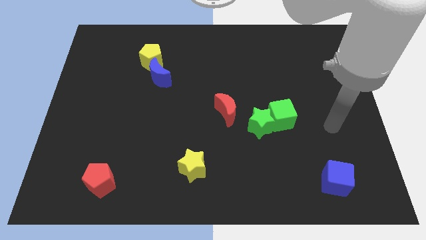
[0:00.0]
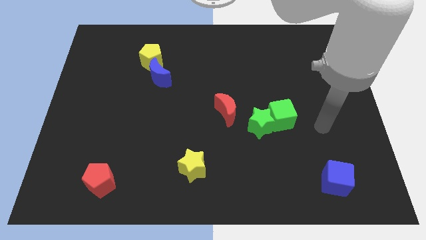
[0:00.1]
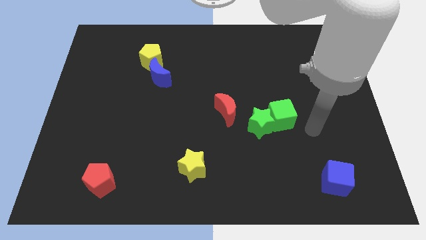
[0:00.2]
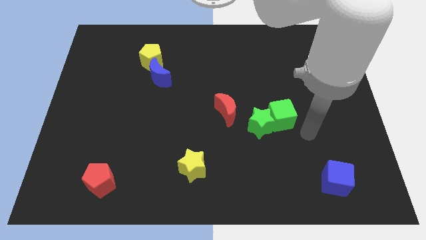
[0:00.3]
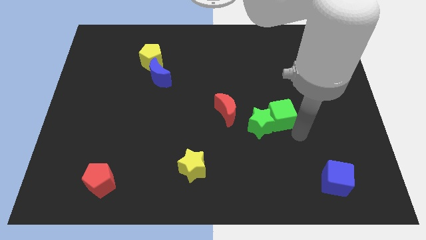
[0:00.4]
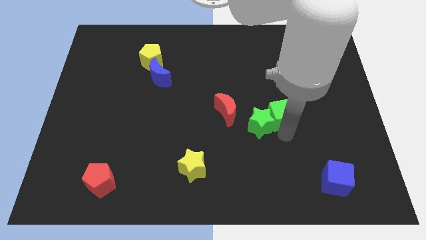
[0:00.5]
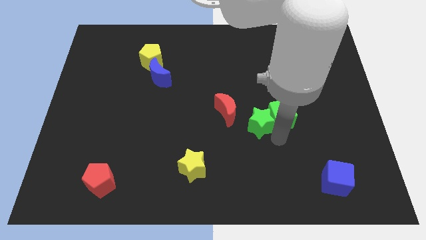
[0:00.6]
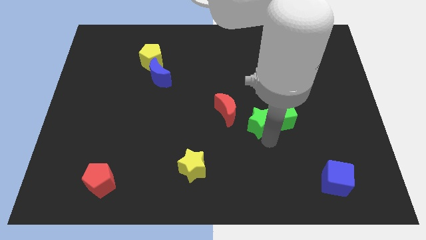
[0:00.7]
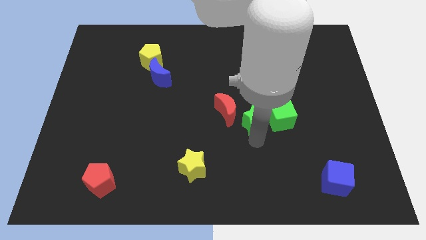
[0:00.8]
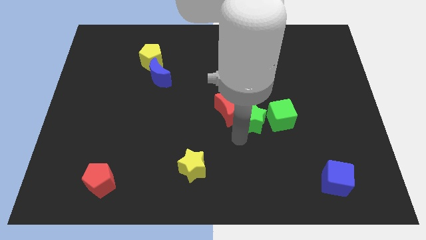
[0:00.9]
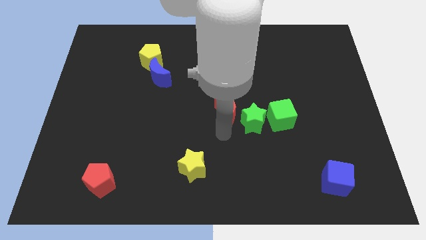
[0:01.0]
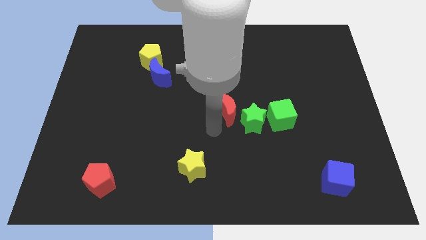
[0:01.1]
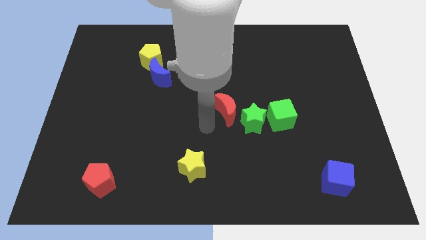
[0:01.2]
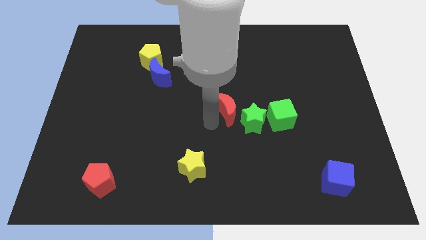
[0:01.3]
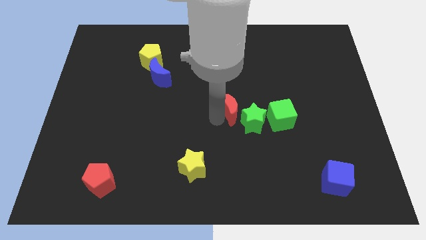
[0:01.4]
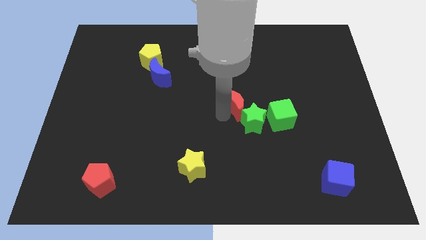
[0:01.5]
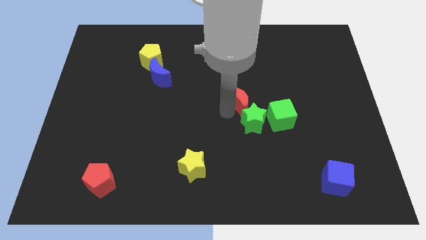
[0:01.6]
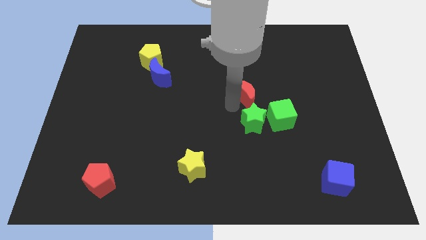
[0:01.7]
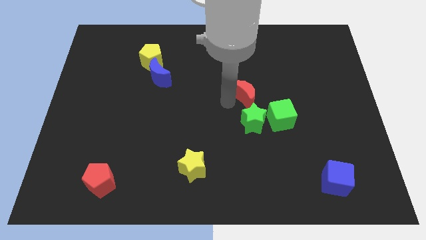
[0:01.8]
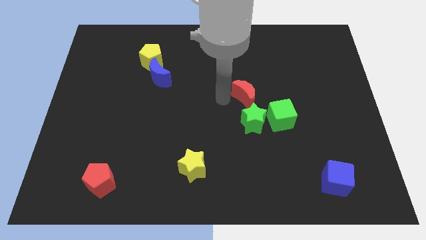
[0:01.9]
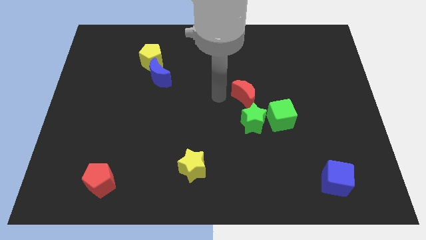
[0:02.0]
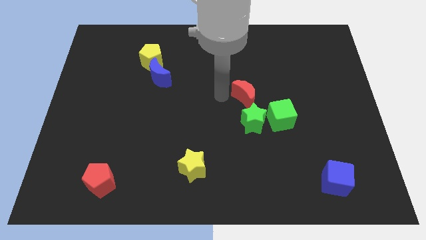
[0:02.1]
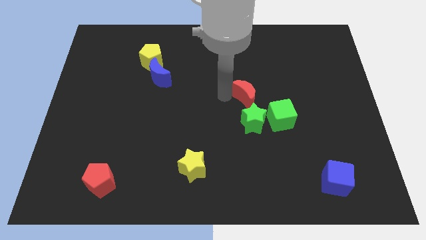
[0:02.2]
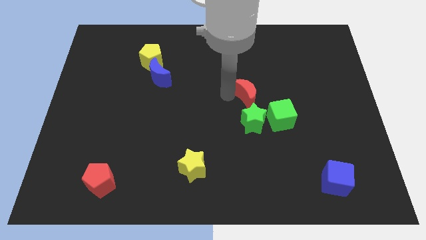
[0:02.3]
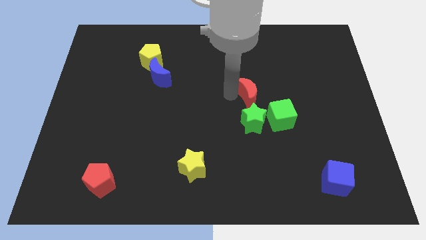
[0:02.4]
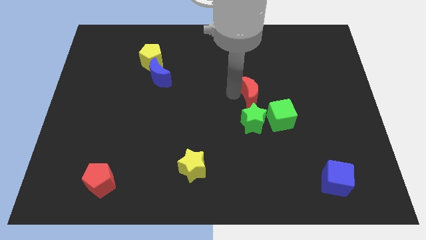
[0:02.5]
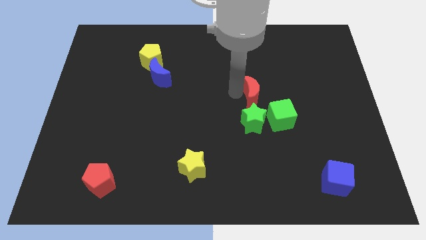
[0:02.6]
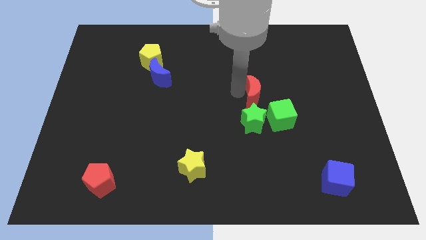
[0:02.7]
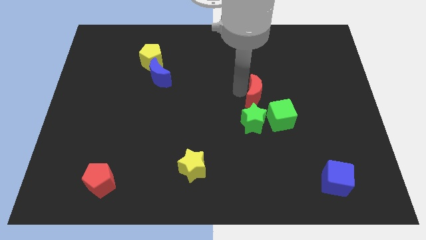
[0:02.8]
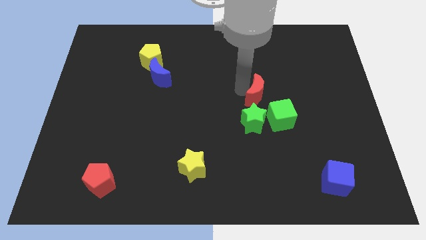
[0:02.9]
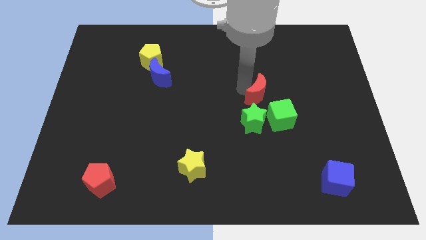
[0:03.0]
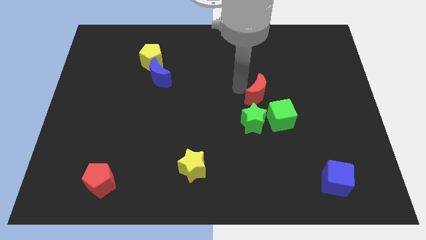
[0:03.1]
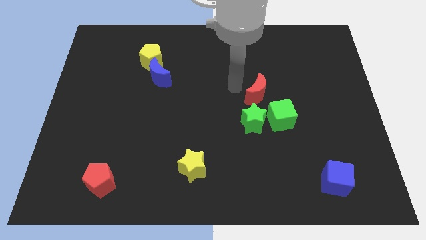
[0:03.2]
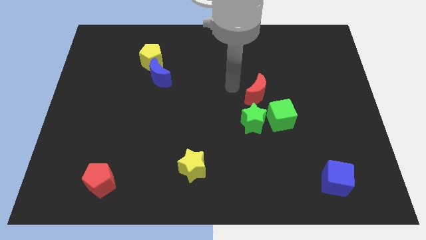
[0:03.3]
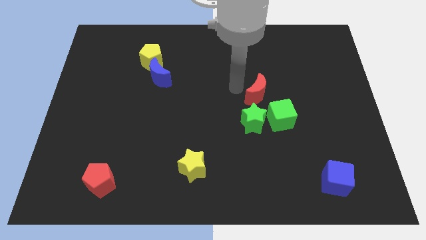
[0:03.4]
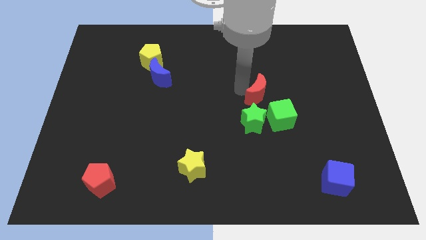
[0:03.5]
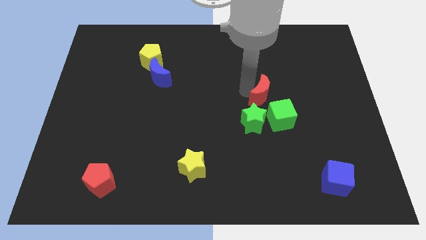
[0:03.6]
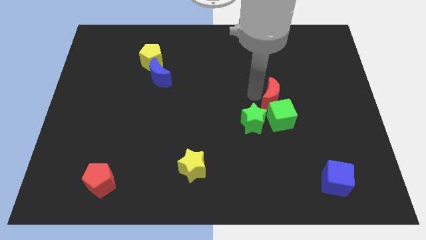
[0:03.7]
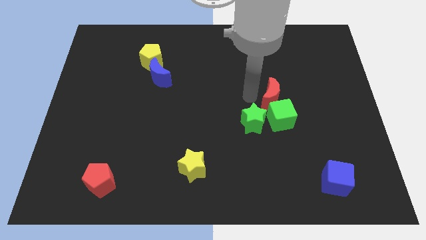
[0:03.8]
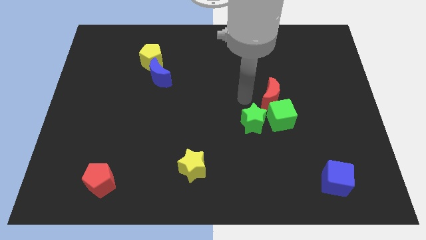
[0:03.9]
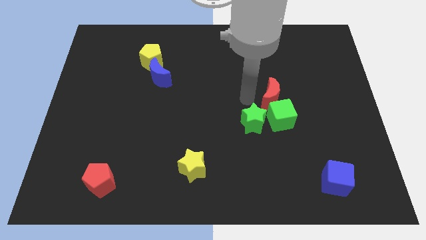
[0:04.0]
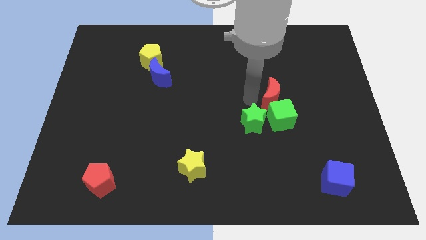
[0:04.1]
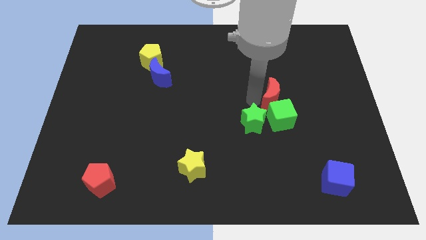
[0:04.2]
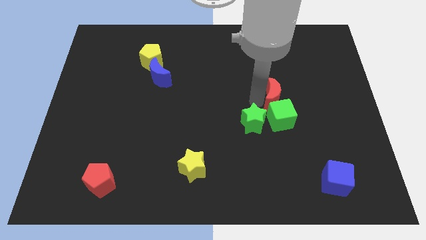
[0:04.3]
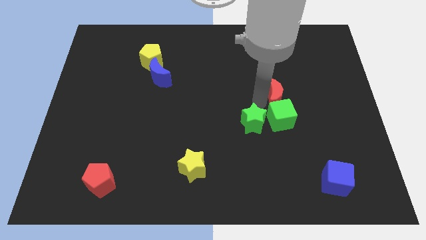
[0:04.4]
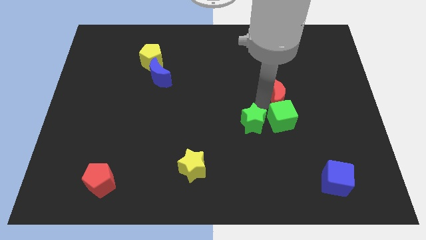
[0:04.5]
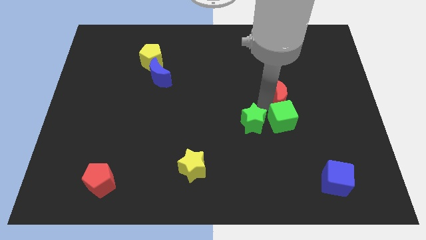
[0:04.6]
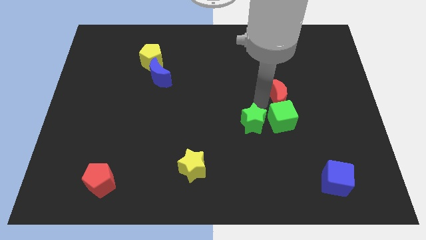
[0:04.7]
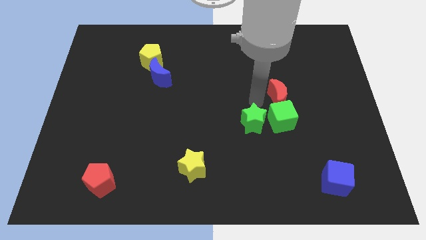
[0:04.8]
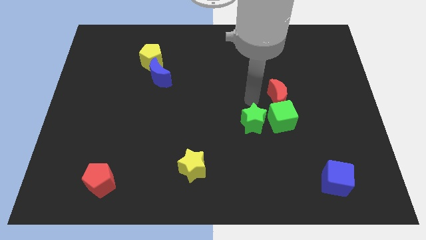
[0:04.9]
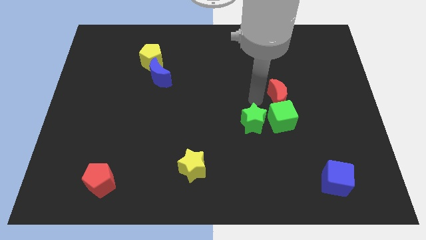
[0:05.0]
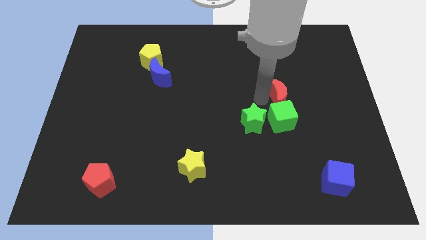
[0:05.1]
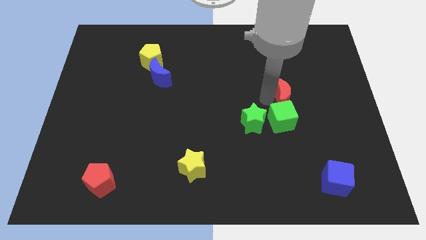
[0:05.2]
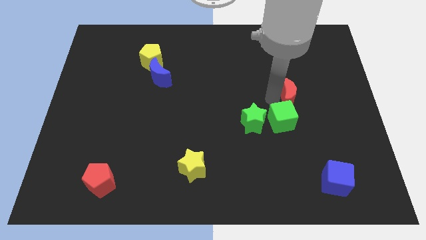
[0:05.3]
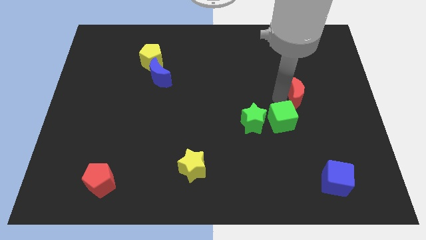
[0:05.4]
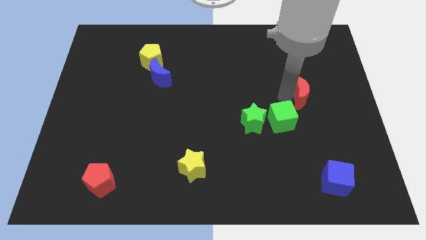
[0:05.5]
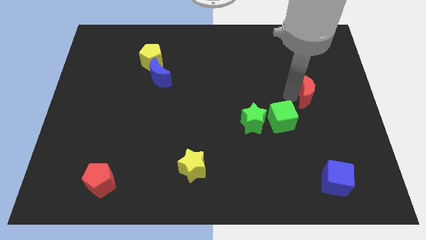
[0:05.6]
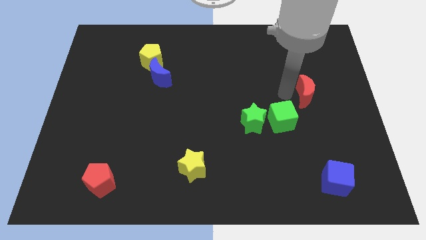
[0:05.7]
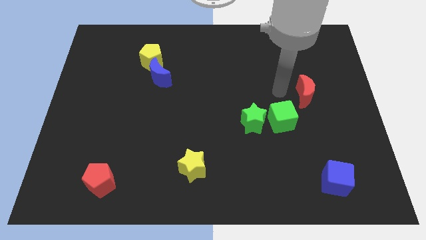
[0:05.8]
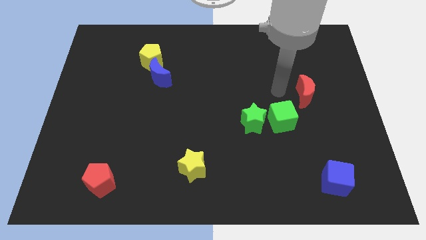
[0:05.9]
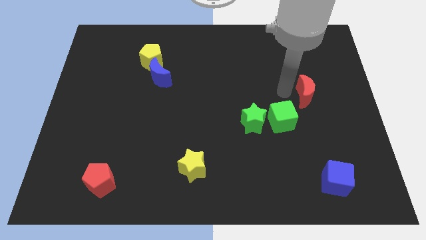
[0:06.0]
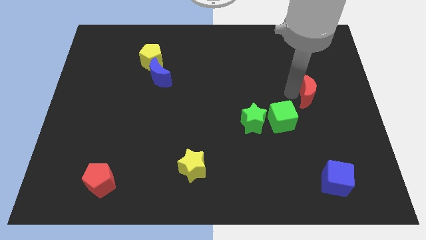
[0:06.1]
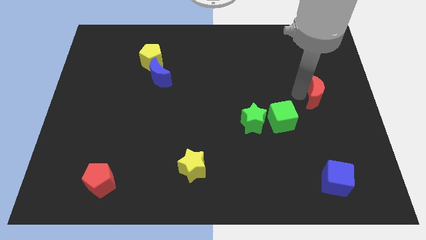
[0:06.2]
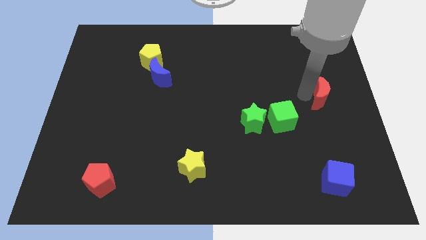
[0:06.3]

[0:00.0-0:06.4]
move the red moon to the center right

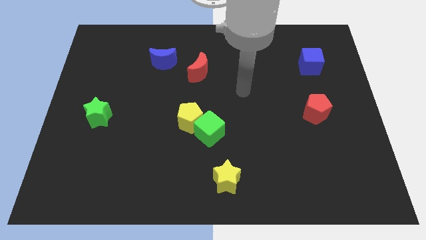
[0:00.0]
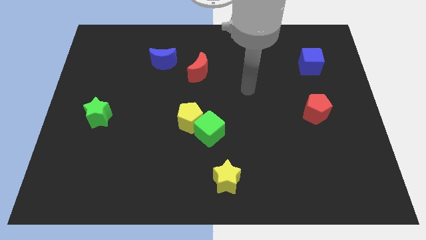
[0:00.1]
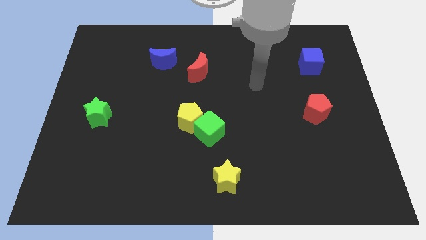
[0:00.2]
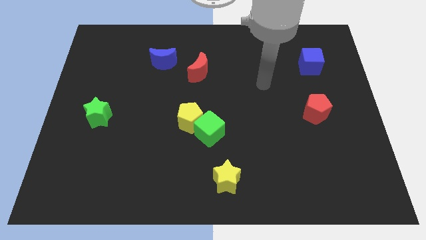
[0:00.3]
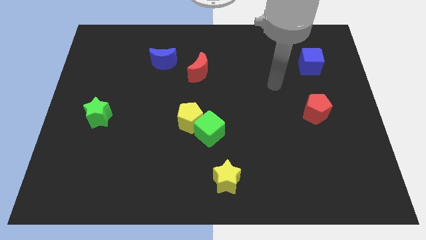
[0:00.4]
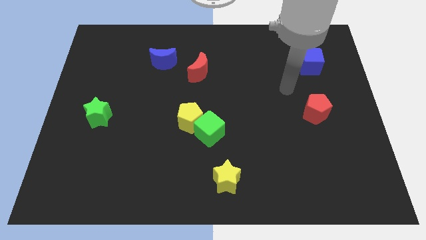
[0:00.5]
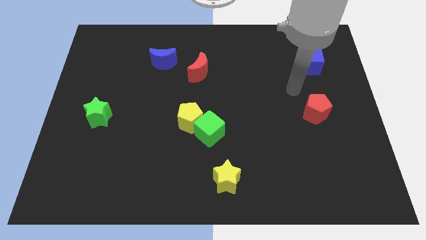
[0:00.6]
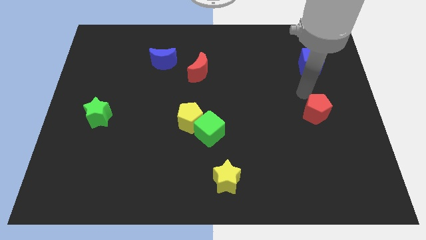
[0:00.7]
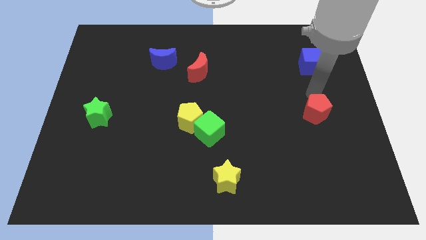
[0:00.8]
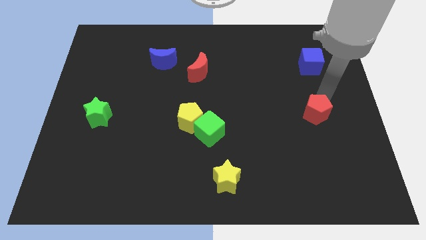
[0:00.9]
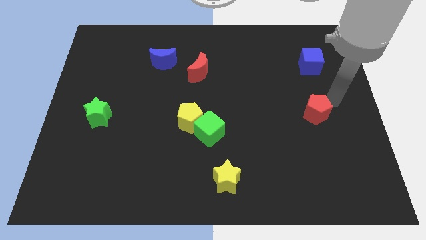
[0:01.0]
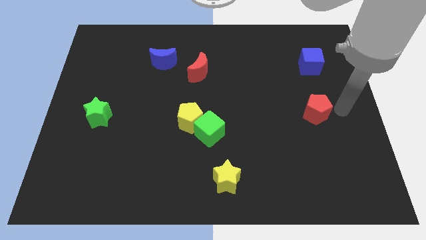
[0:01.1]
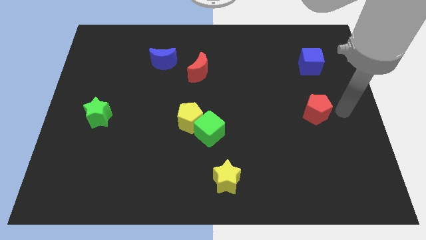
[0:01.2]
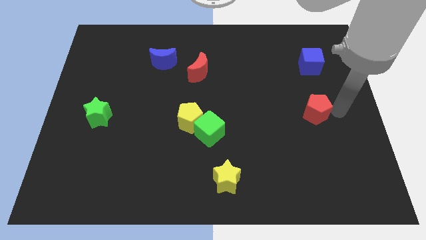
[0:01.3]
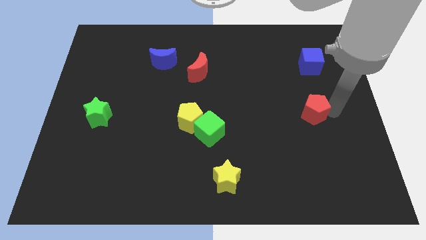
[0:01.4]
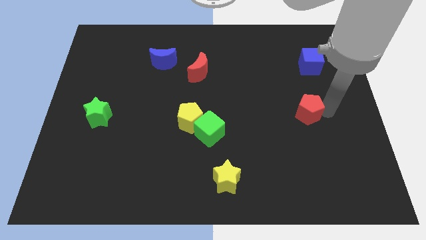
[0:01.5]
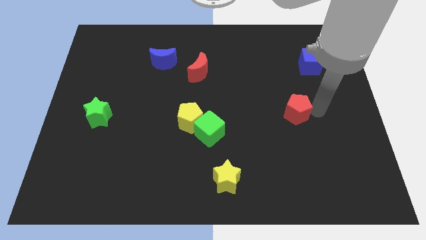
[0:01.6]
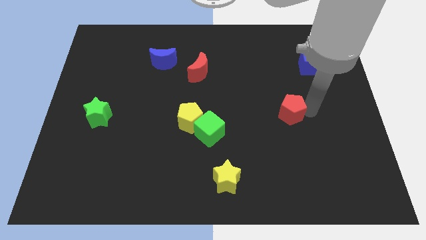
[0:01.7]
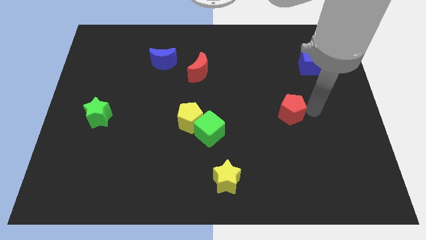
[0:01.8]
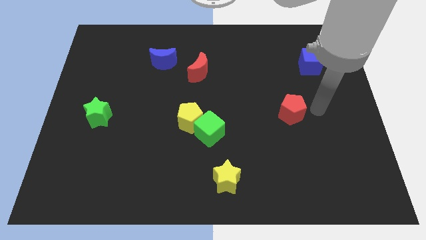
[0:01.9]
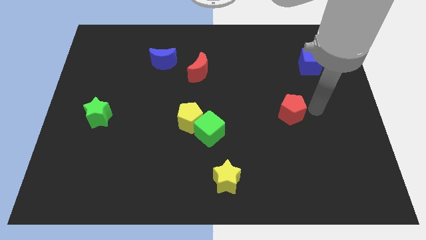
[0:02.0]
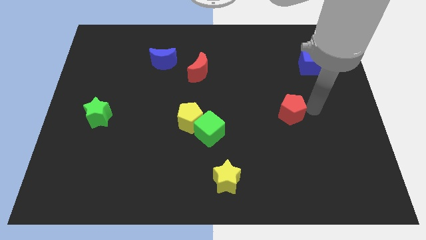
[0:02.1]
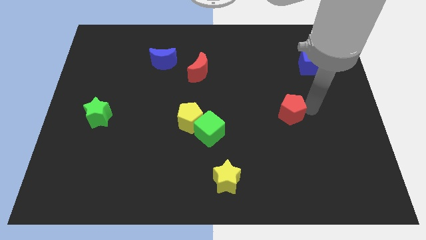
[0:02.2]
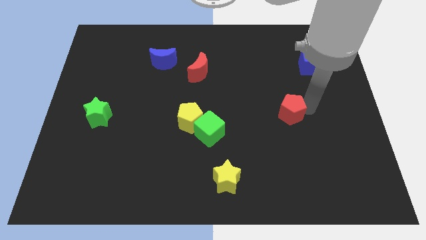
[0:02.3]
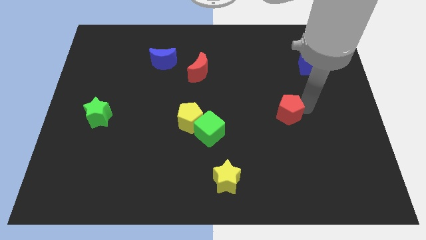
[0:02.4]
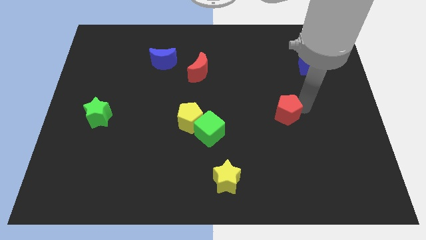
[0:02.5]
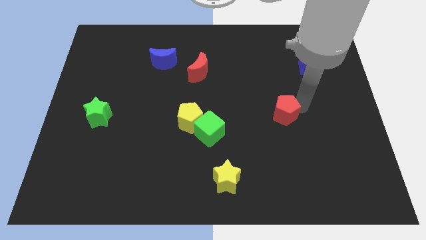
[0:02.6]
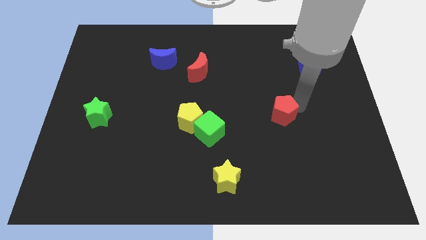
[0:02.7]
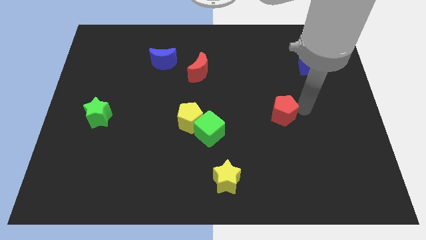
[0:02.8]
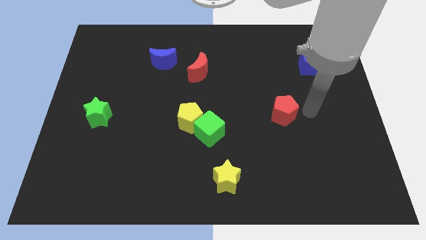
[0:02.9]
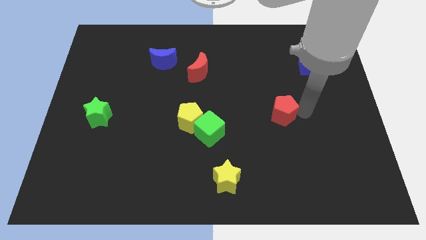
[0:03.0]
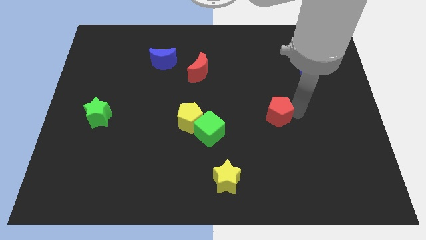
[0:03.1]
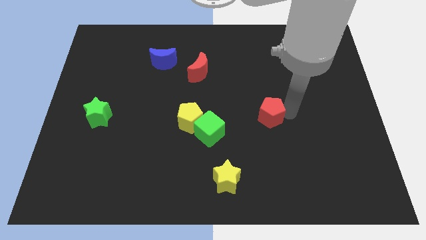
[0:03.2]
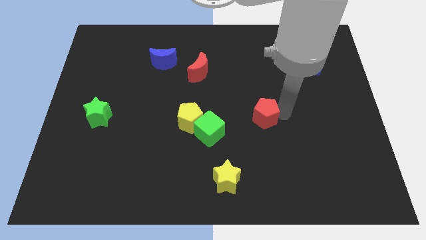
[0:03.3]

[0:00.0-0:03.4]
slide the red pentagon to the center
